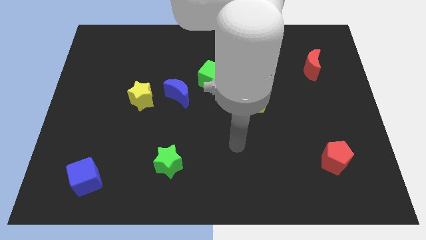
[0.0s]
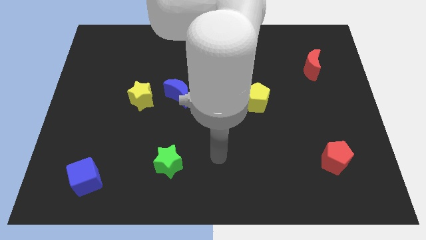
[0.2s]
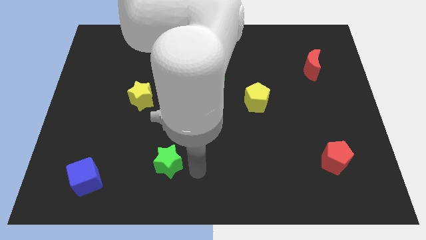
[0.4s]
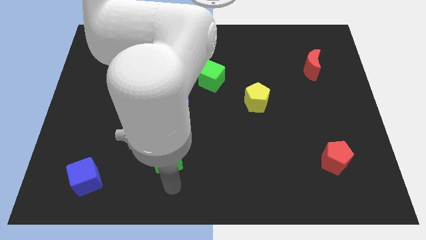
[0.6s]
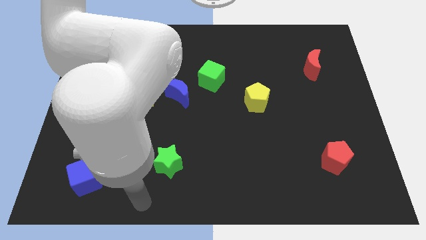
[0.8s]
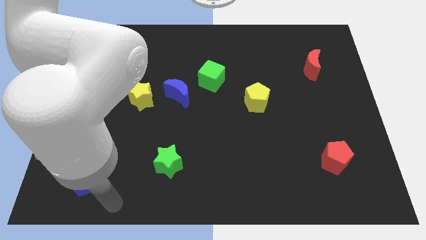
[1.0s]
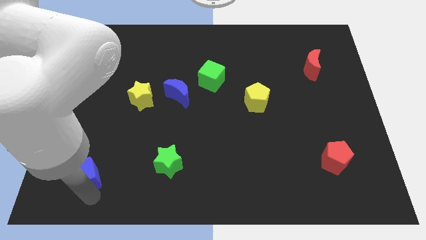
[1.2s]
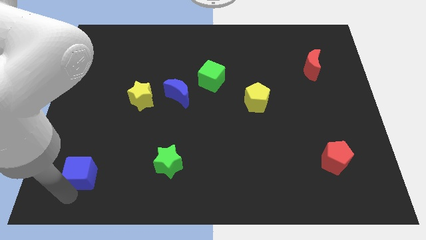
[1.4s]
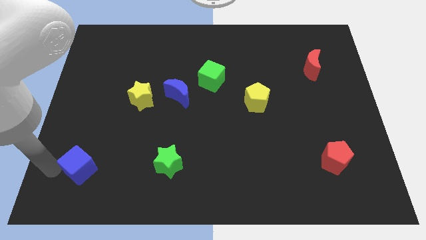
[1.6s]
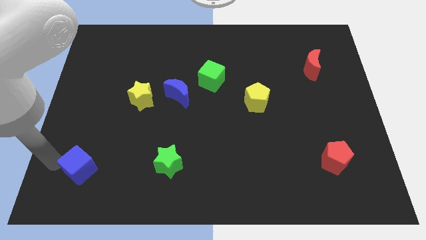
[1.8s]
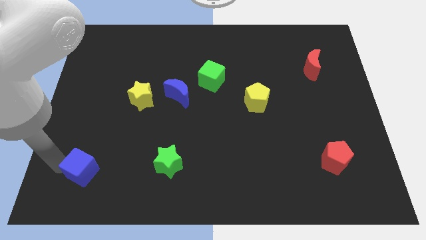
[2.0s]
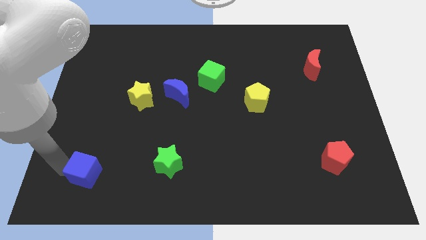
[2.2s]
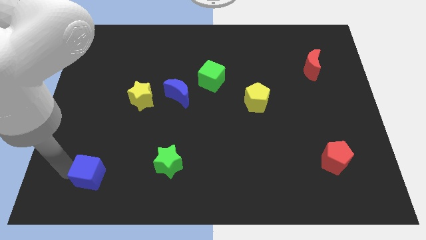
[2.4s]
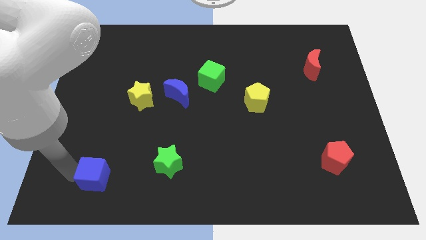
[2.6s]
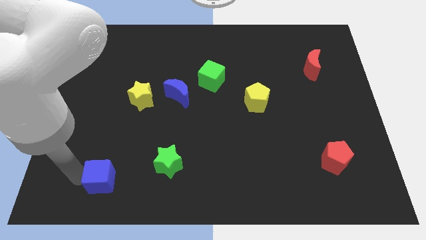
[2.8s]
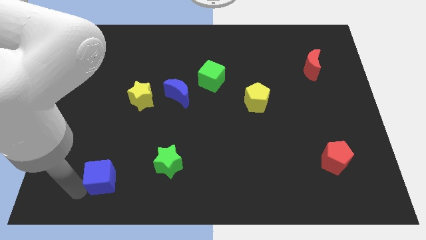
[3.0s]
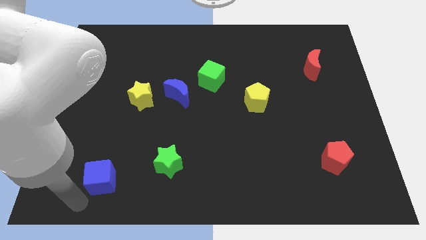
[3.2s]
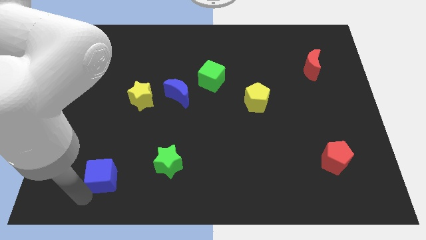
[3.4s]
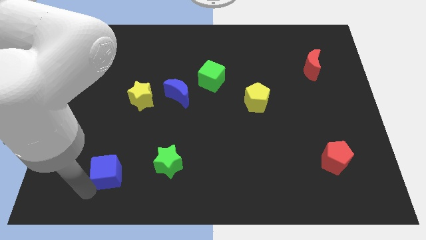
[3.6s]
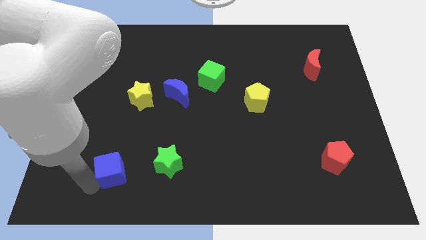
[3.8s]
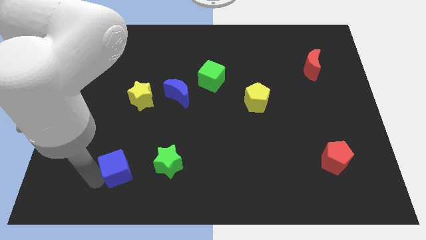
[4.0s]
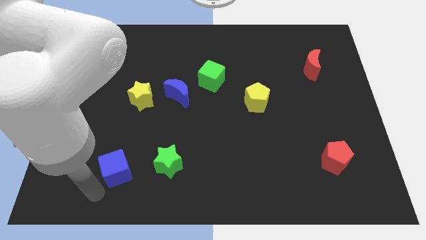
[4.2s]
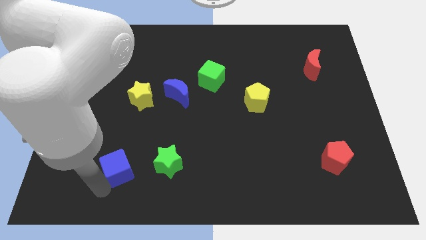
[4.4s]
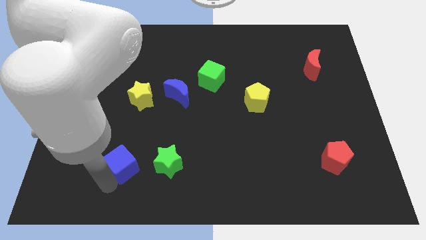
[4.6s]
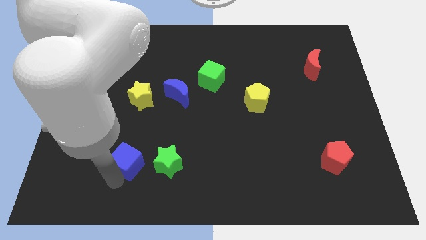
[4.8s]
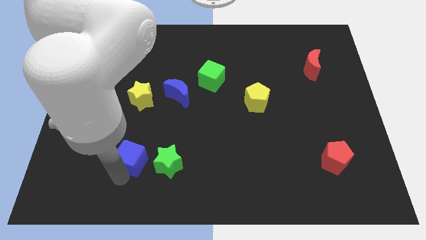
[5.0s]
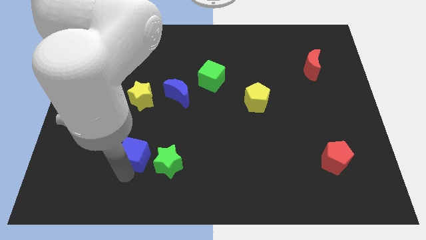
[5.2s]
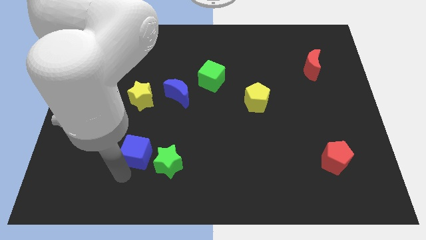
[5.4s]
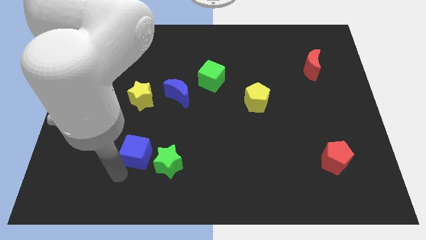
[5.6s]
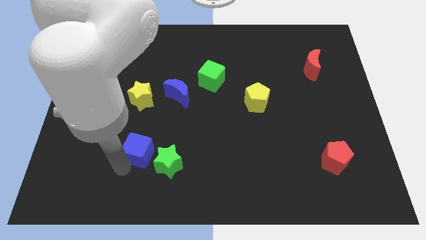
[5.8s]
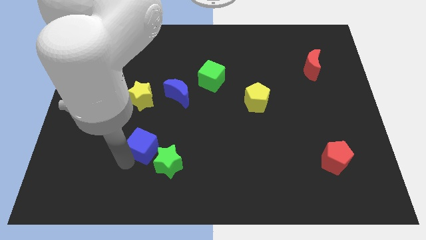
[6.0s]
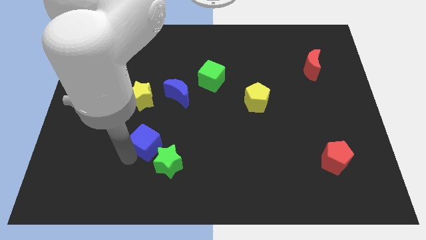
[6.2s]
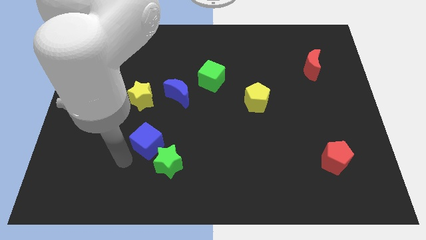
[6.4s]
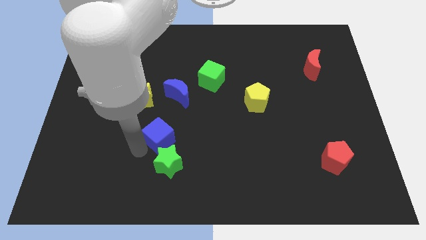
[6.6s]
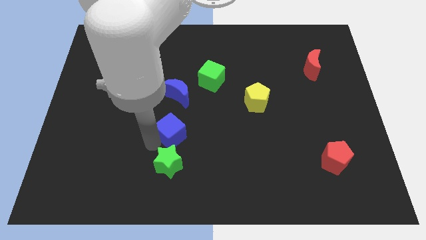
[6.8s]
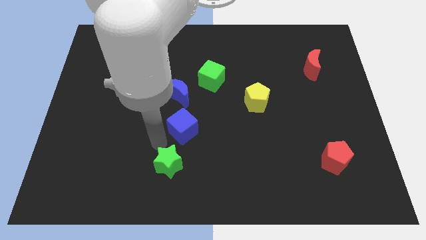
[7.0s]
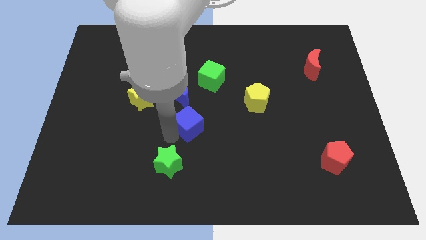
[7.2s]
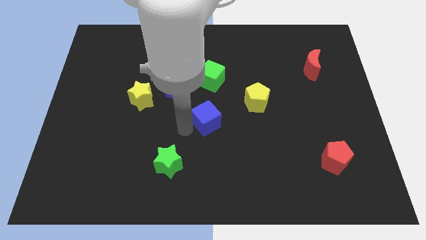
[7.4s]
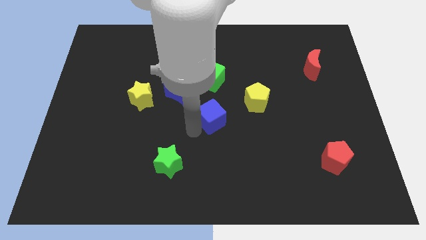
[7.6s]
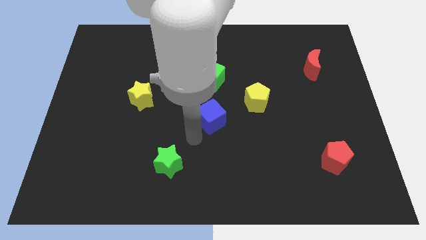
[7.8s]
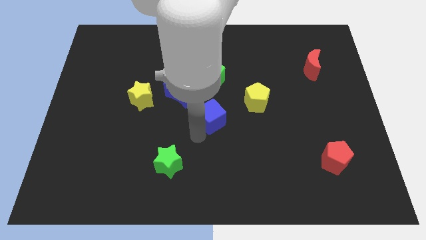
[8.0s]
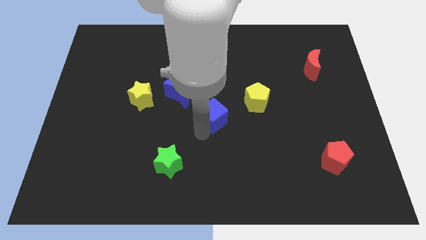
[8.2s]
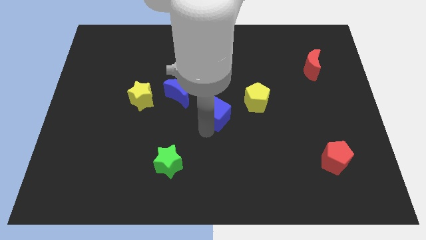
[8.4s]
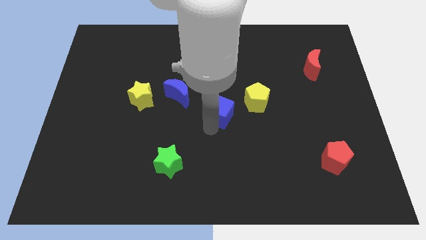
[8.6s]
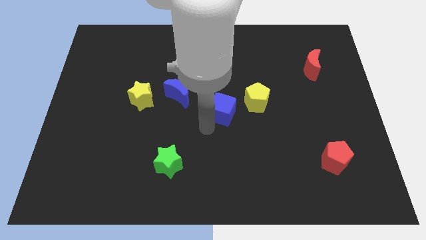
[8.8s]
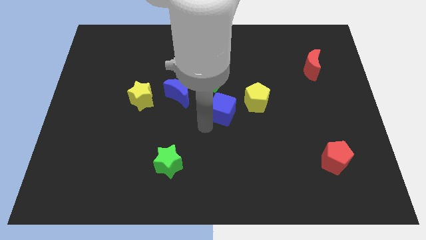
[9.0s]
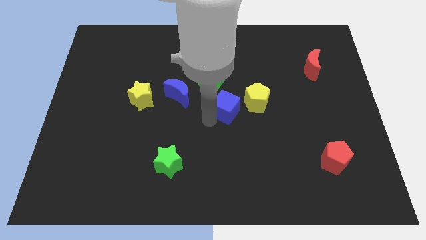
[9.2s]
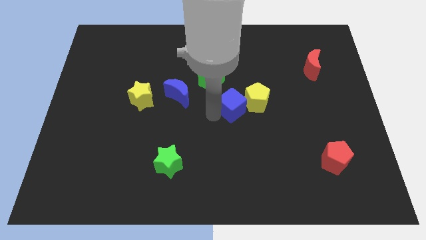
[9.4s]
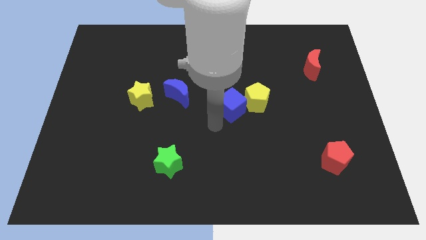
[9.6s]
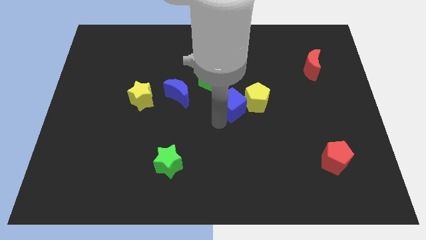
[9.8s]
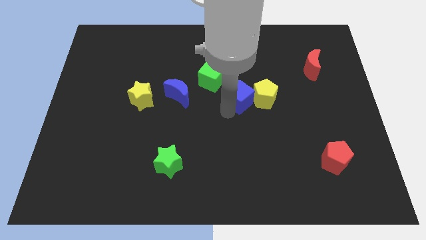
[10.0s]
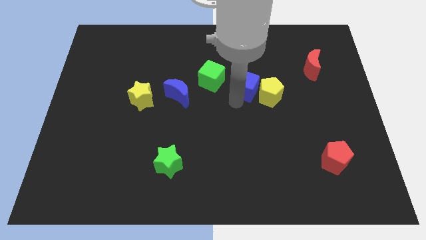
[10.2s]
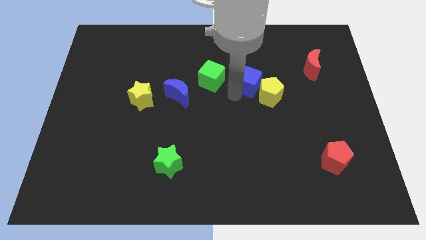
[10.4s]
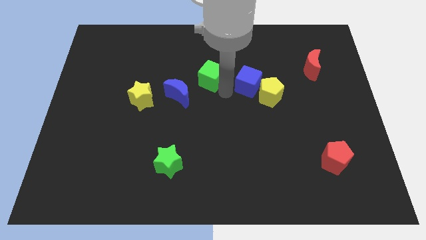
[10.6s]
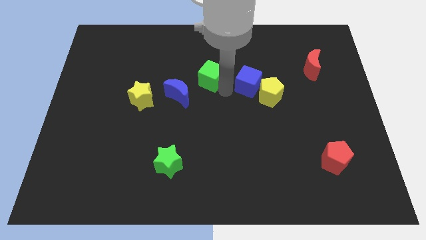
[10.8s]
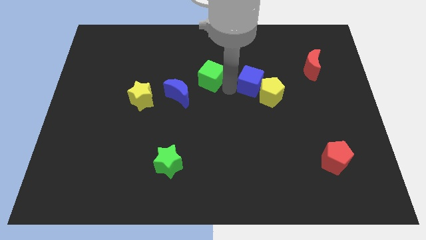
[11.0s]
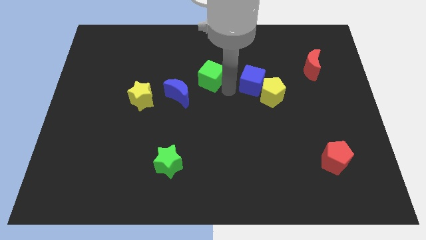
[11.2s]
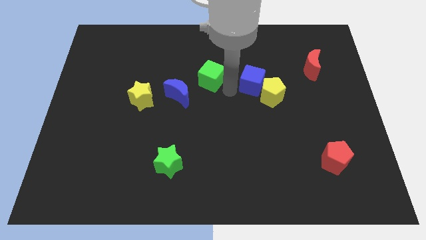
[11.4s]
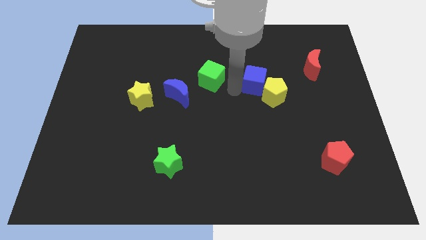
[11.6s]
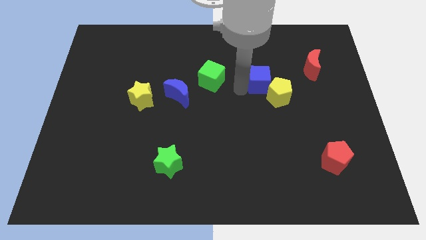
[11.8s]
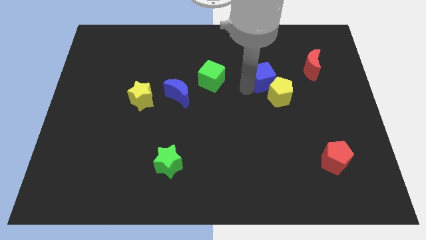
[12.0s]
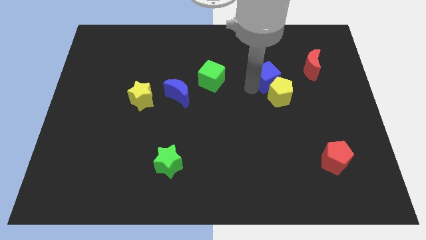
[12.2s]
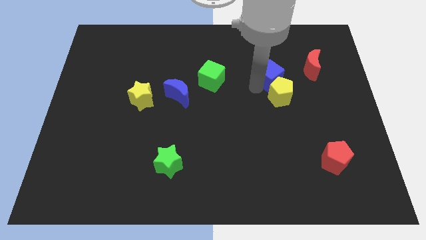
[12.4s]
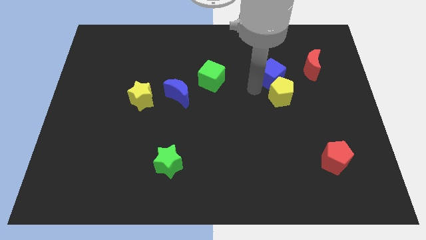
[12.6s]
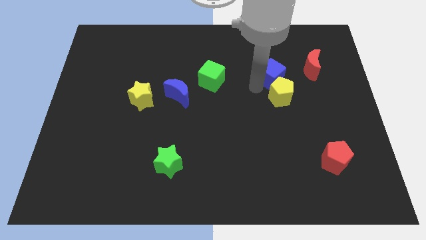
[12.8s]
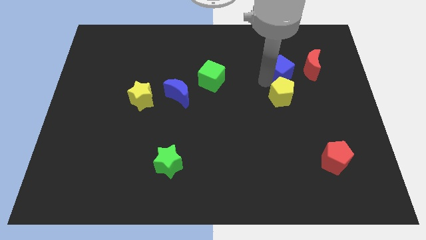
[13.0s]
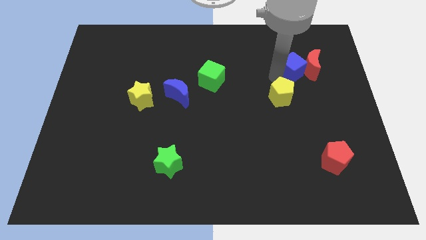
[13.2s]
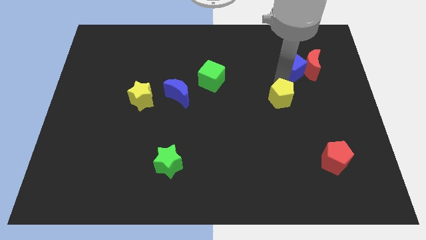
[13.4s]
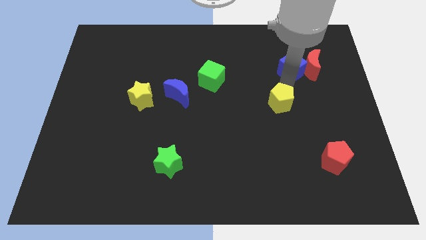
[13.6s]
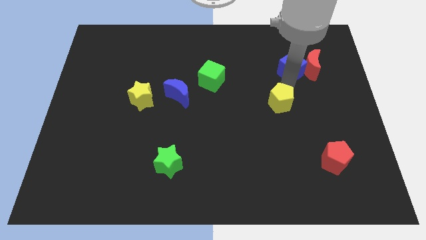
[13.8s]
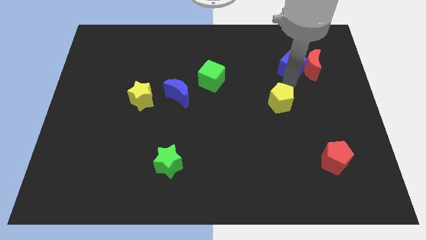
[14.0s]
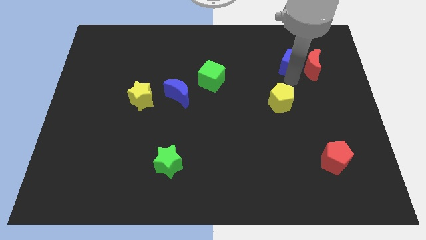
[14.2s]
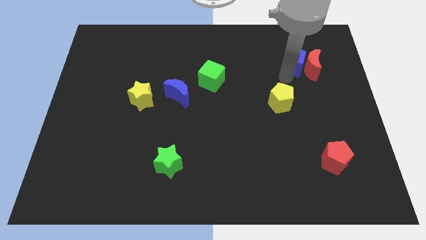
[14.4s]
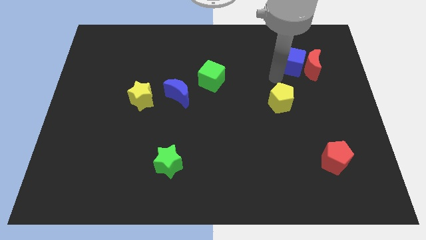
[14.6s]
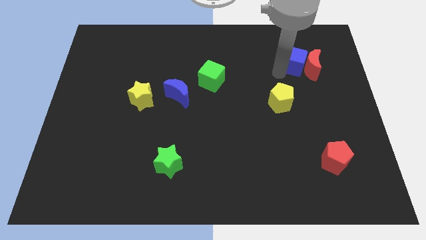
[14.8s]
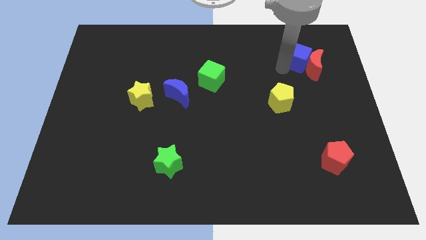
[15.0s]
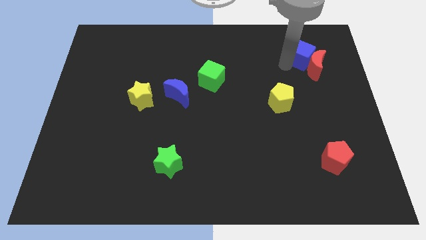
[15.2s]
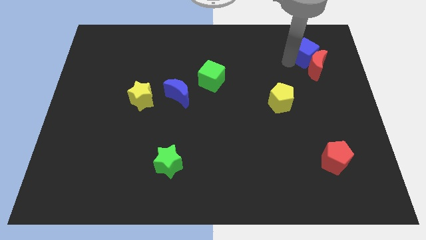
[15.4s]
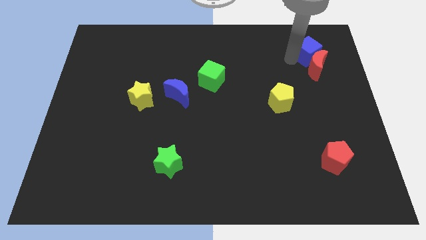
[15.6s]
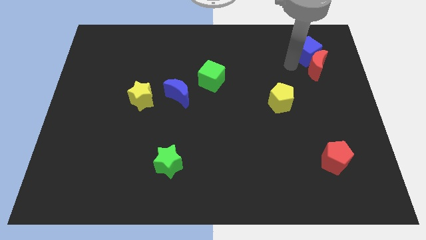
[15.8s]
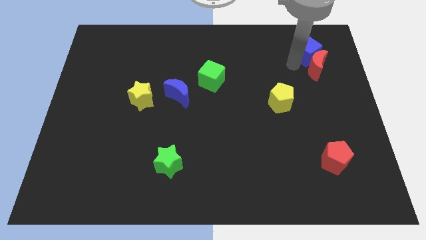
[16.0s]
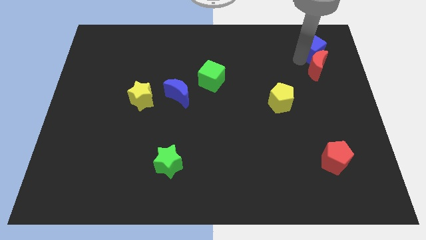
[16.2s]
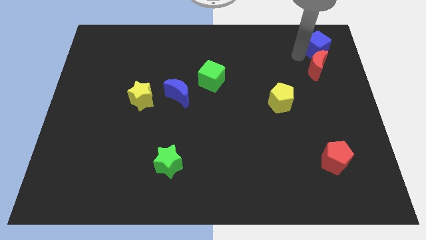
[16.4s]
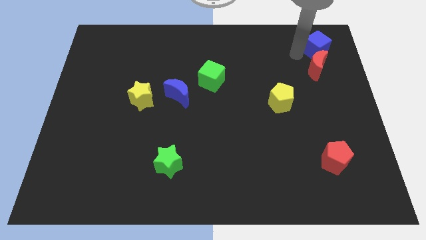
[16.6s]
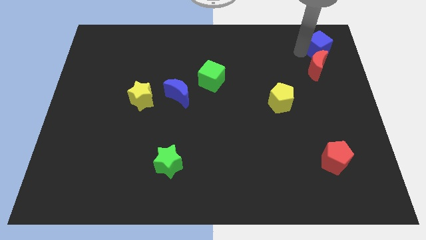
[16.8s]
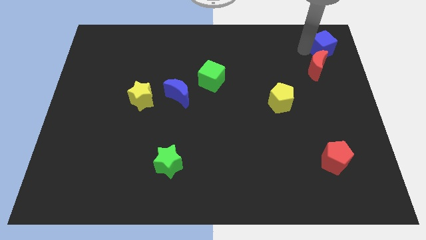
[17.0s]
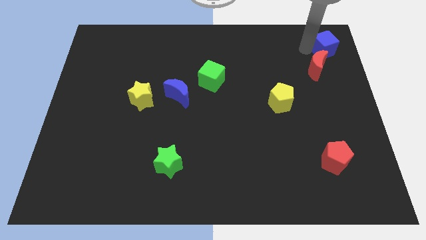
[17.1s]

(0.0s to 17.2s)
slide the blue cube to the upper right corner
